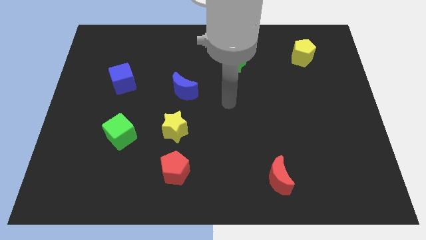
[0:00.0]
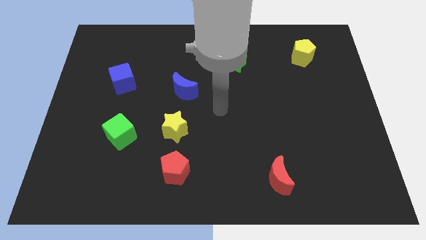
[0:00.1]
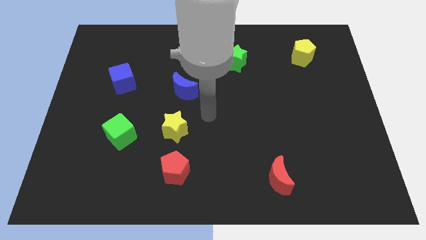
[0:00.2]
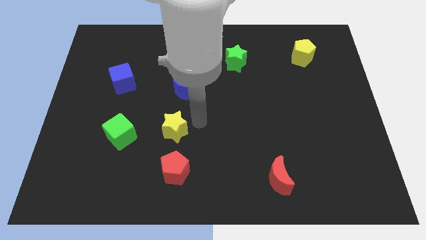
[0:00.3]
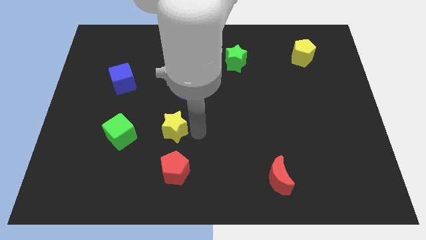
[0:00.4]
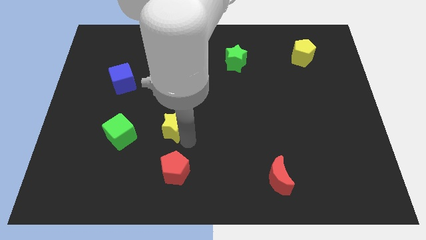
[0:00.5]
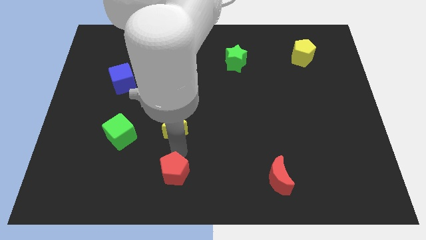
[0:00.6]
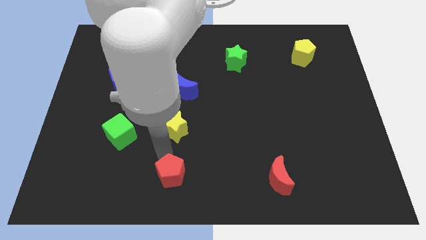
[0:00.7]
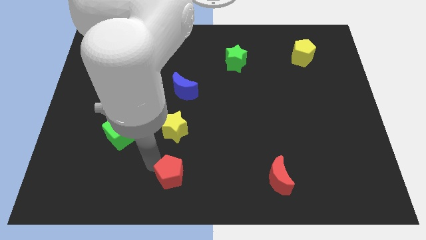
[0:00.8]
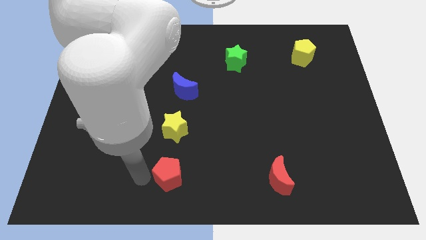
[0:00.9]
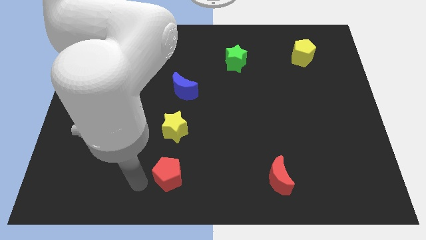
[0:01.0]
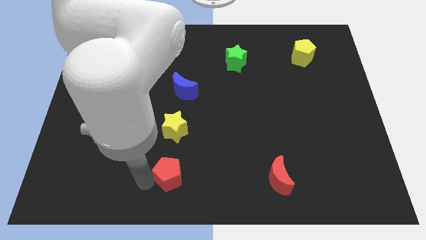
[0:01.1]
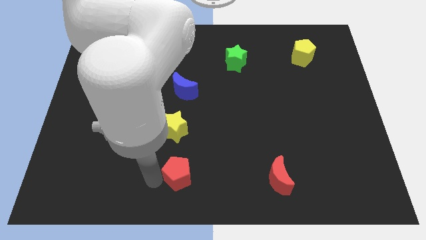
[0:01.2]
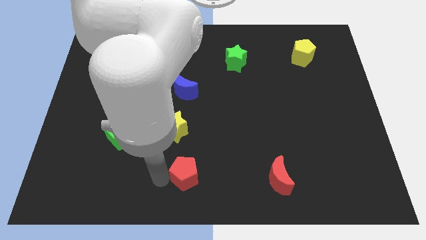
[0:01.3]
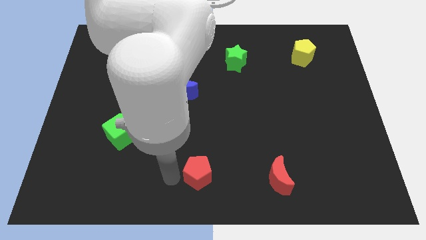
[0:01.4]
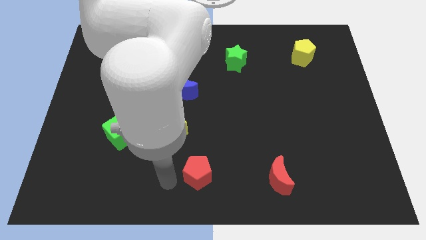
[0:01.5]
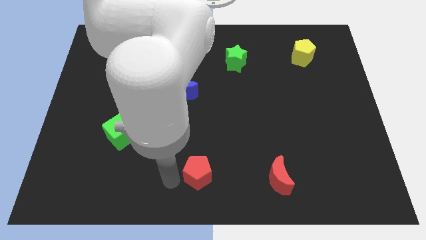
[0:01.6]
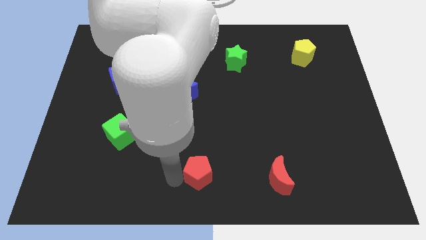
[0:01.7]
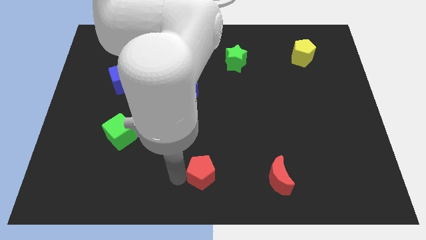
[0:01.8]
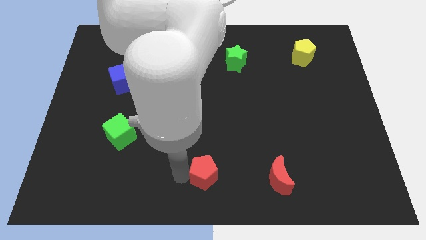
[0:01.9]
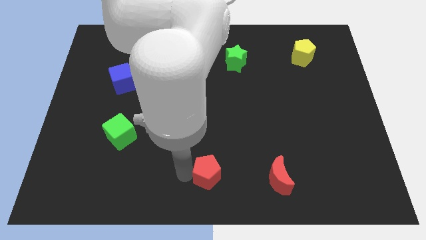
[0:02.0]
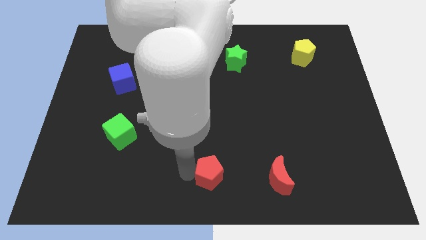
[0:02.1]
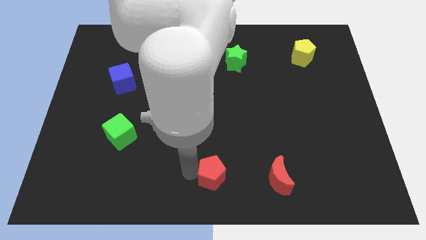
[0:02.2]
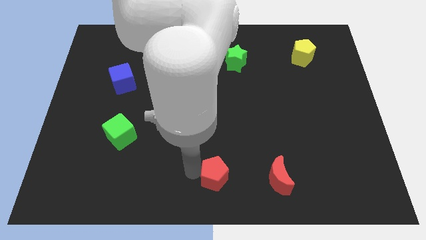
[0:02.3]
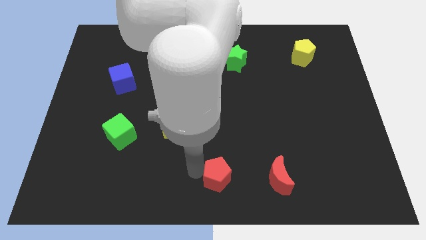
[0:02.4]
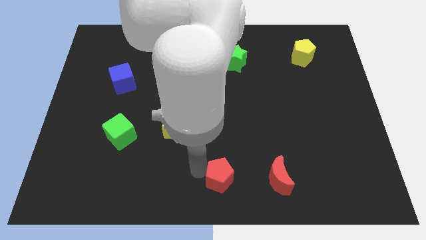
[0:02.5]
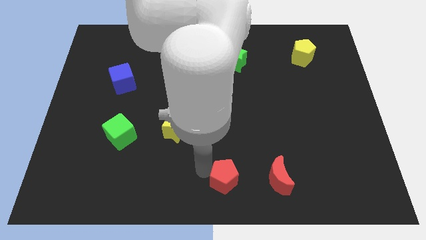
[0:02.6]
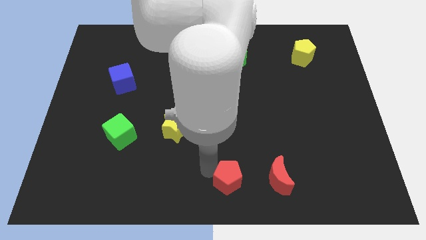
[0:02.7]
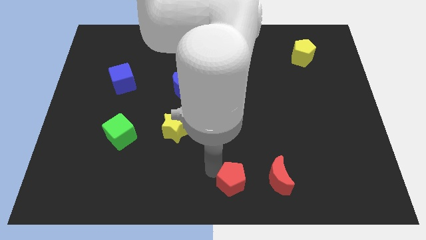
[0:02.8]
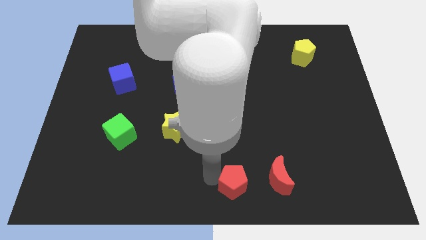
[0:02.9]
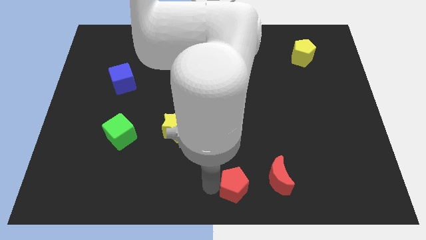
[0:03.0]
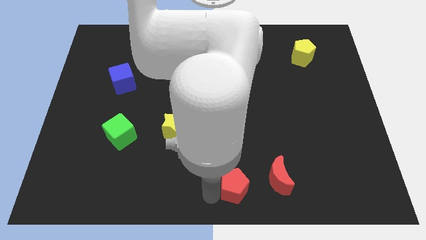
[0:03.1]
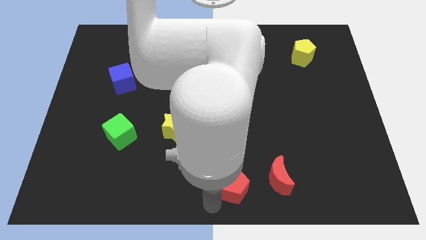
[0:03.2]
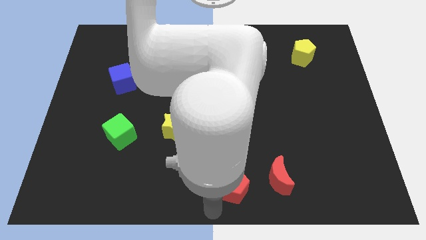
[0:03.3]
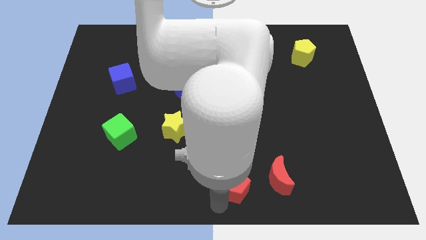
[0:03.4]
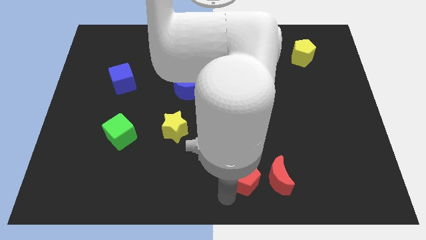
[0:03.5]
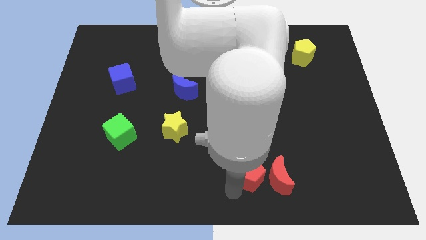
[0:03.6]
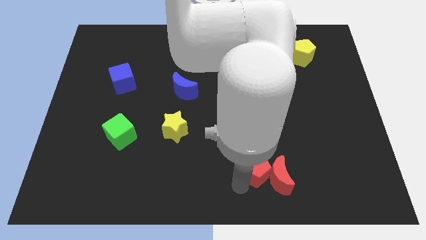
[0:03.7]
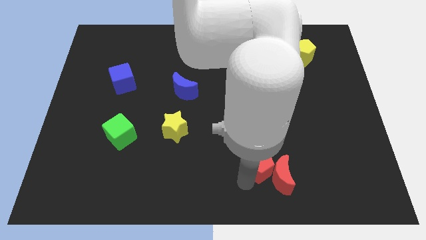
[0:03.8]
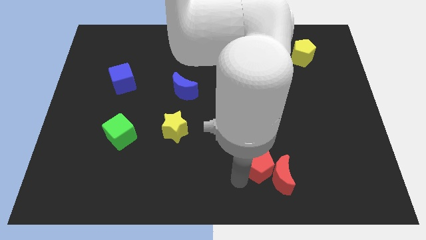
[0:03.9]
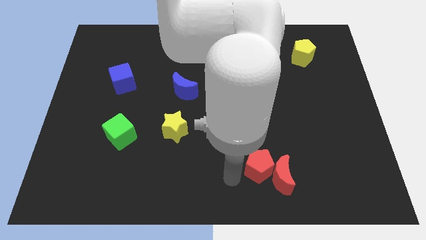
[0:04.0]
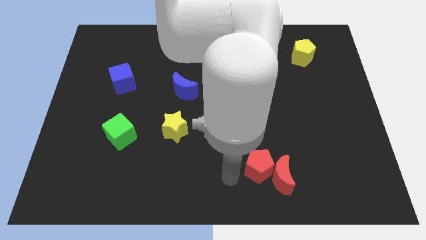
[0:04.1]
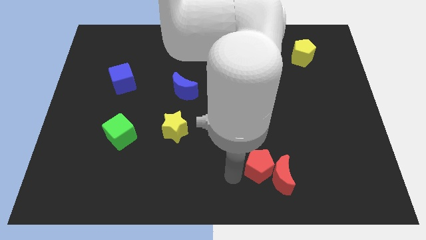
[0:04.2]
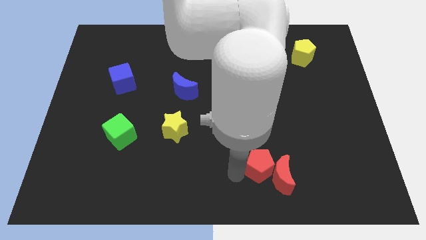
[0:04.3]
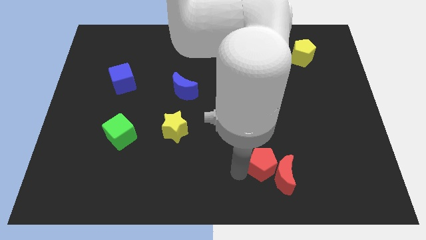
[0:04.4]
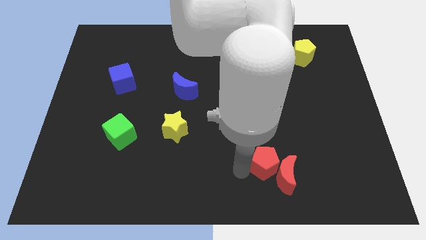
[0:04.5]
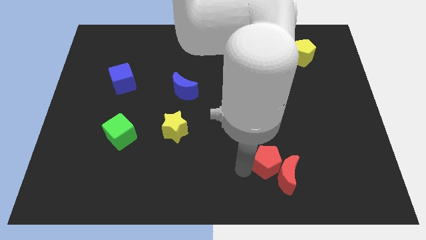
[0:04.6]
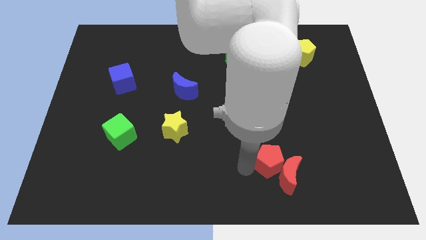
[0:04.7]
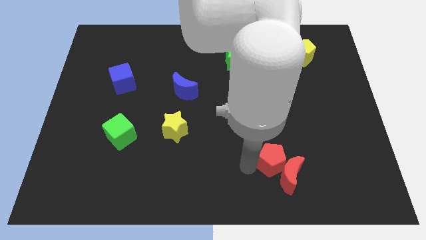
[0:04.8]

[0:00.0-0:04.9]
move the red pentagon right

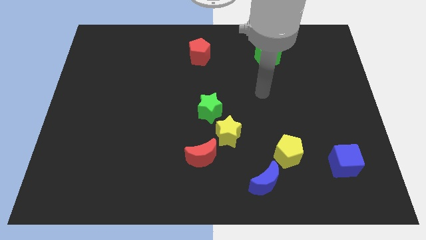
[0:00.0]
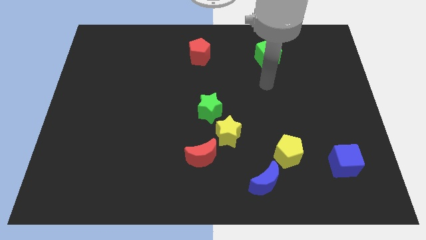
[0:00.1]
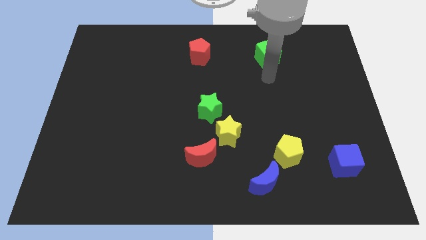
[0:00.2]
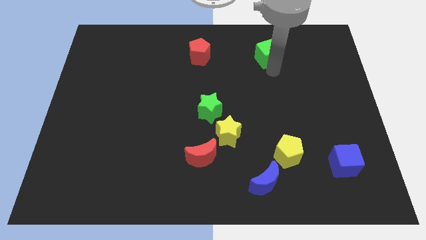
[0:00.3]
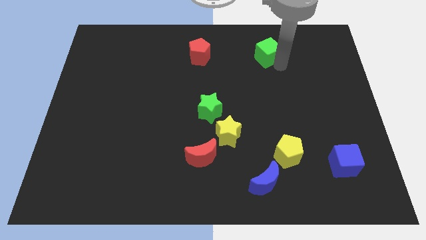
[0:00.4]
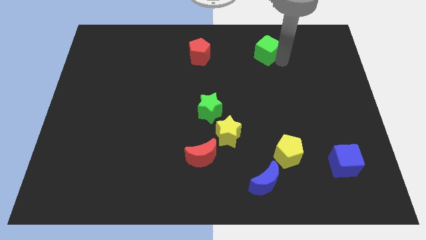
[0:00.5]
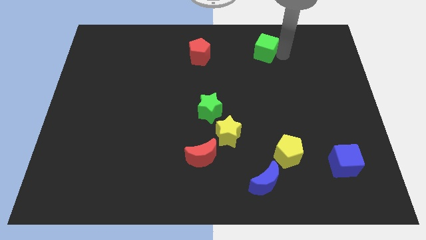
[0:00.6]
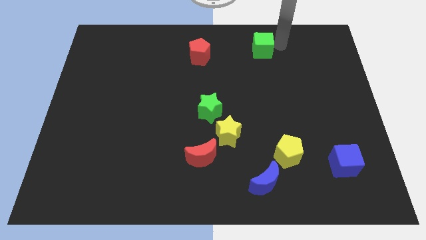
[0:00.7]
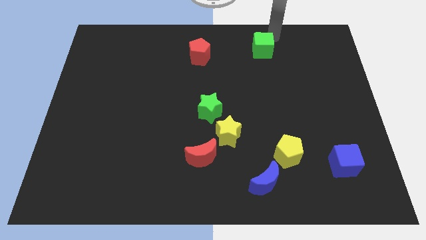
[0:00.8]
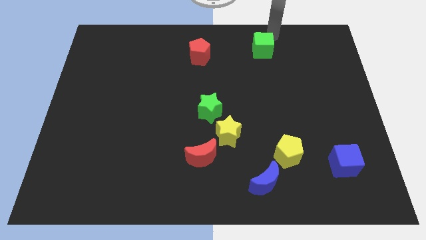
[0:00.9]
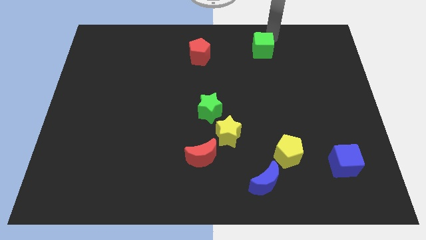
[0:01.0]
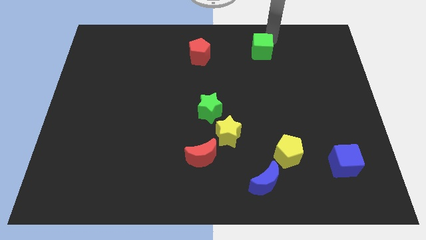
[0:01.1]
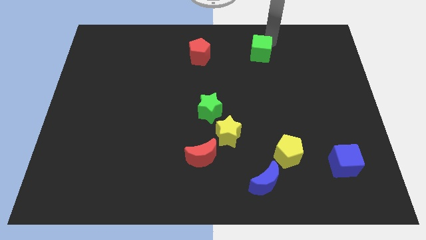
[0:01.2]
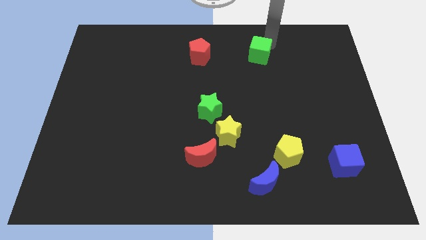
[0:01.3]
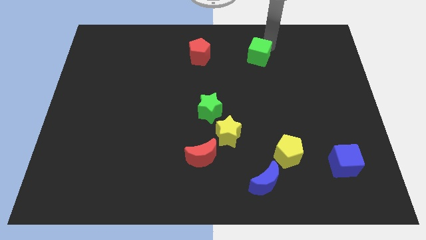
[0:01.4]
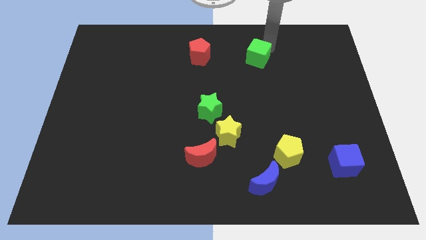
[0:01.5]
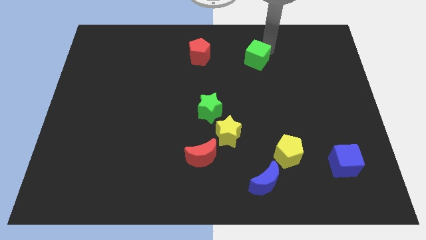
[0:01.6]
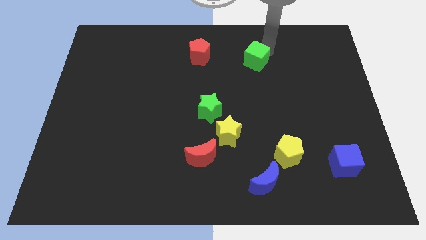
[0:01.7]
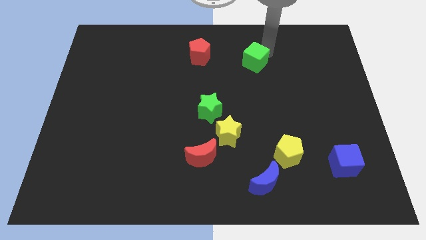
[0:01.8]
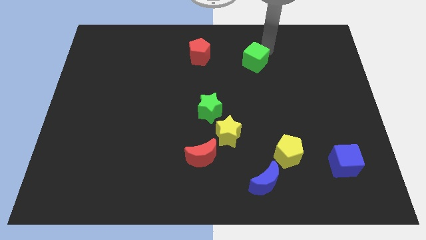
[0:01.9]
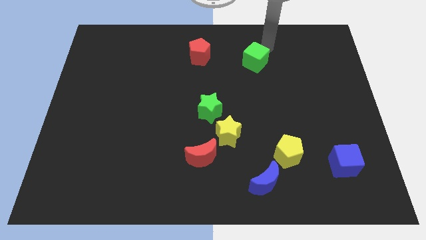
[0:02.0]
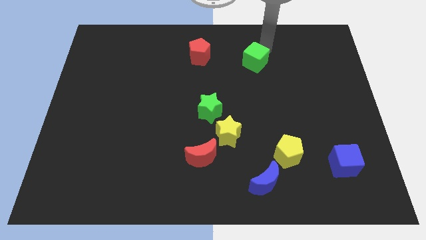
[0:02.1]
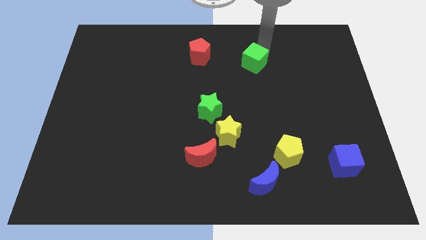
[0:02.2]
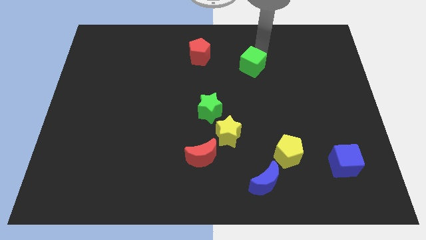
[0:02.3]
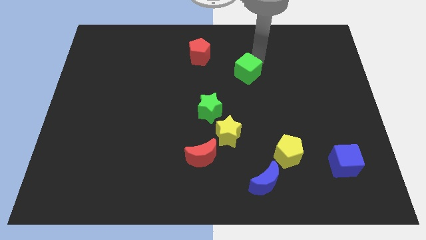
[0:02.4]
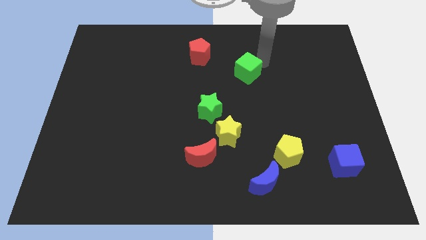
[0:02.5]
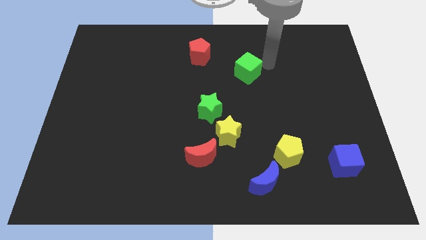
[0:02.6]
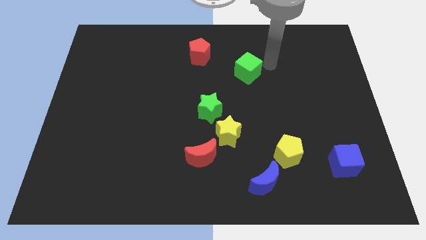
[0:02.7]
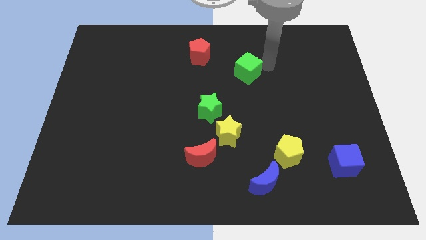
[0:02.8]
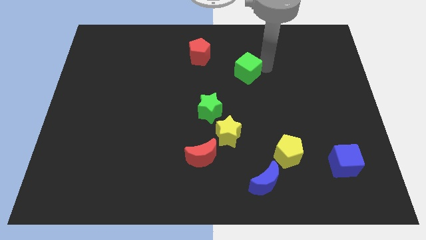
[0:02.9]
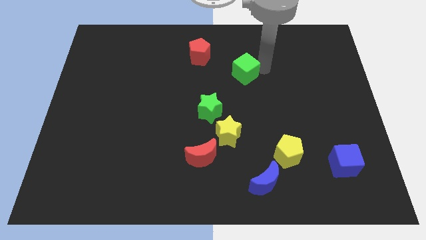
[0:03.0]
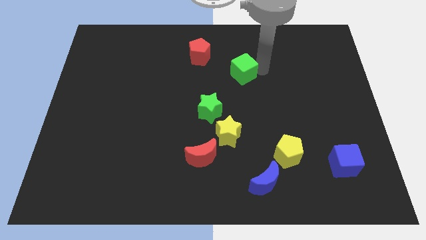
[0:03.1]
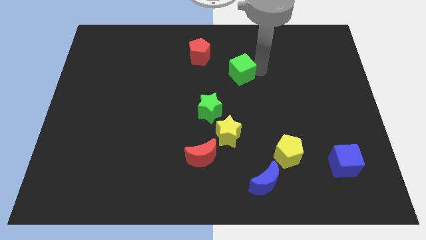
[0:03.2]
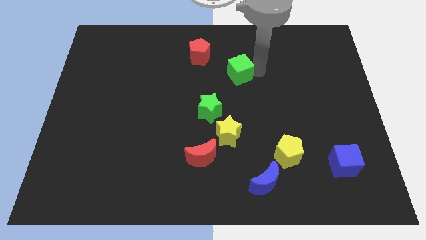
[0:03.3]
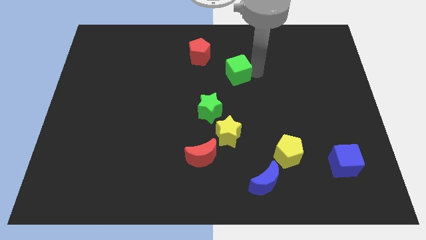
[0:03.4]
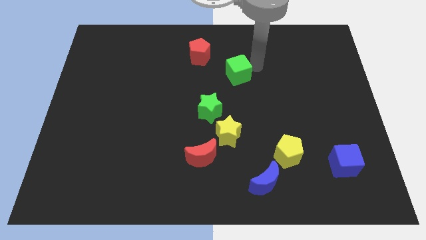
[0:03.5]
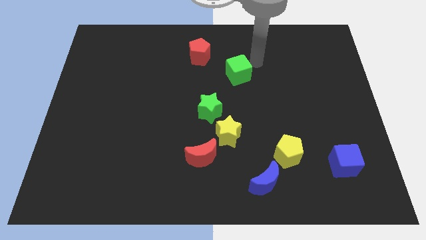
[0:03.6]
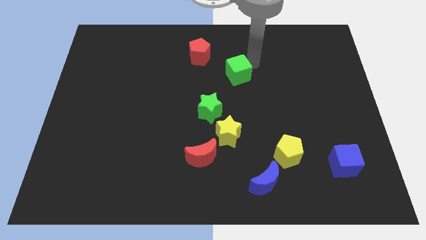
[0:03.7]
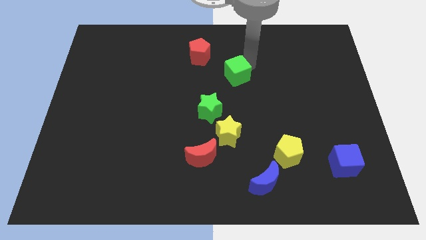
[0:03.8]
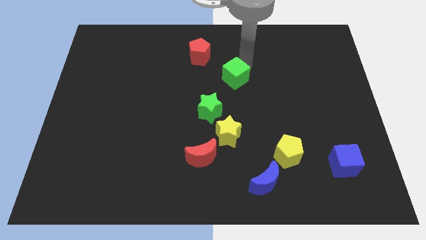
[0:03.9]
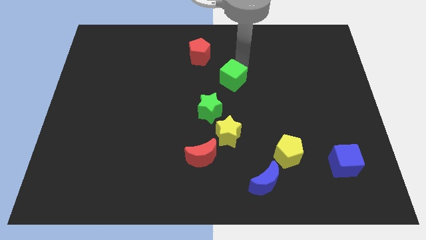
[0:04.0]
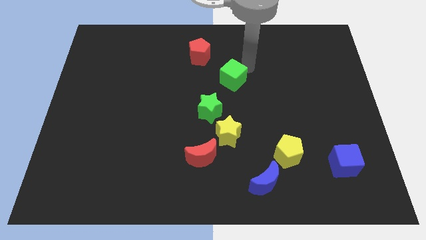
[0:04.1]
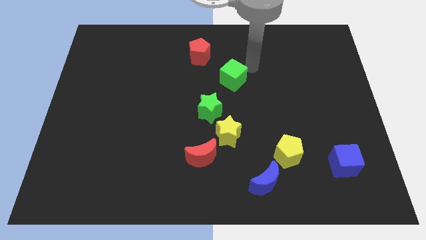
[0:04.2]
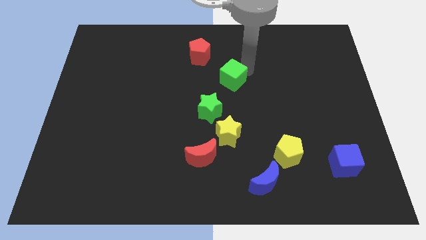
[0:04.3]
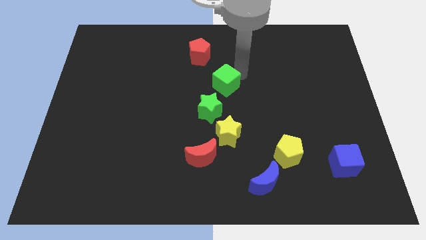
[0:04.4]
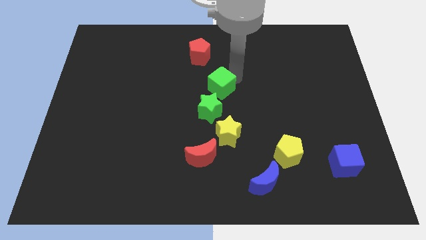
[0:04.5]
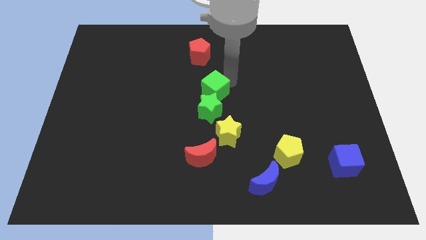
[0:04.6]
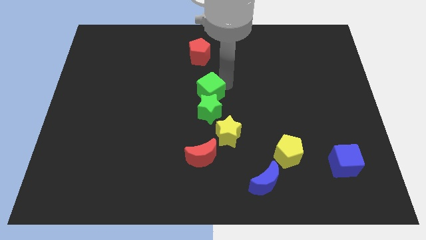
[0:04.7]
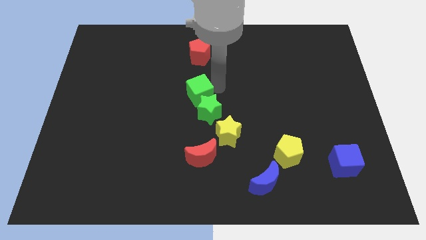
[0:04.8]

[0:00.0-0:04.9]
slide the green cube down and then left
